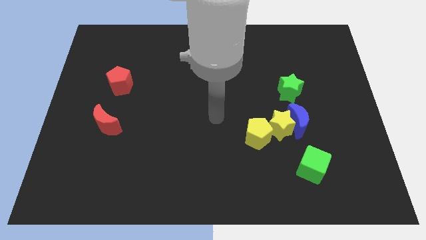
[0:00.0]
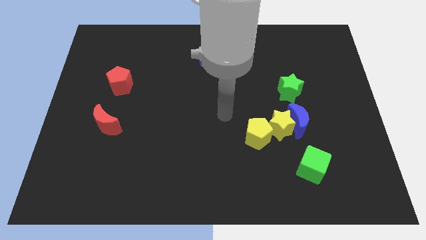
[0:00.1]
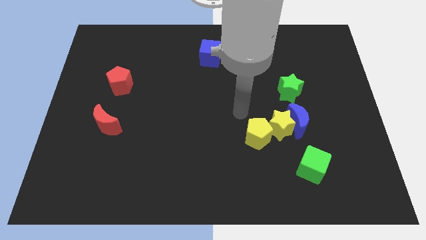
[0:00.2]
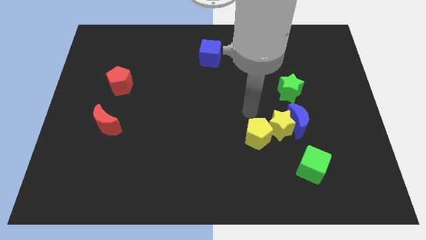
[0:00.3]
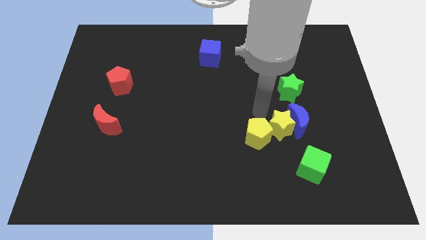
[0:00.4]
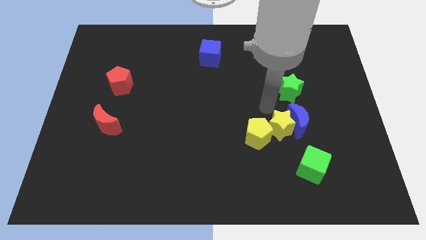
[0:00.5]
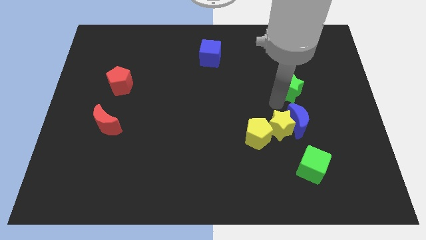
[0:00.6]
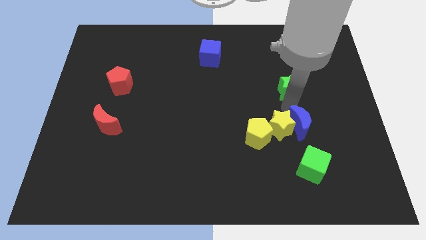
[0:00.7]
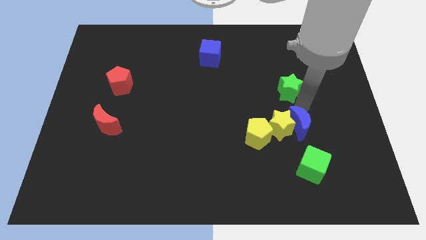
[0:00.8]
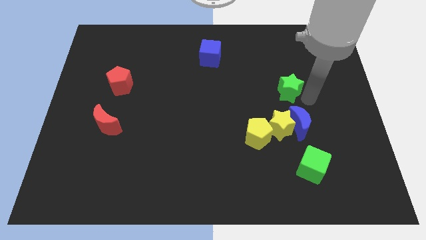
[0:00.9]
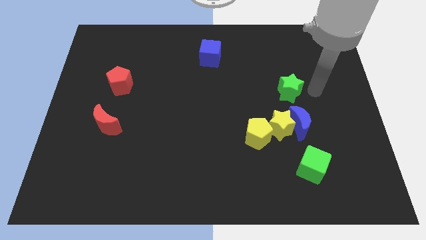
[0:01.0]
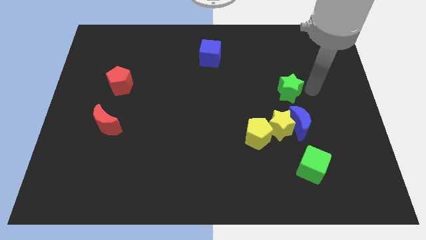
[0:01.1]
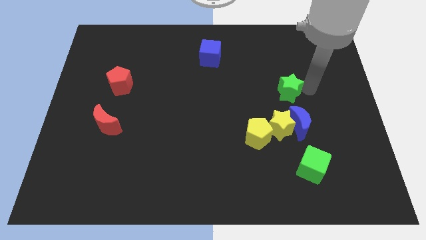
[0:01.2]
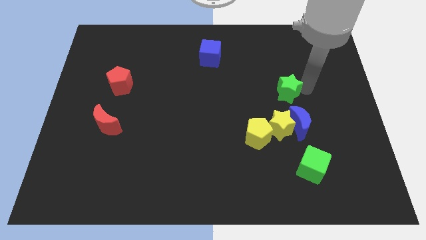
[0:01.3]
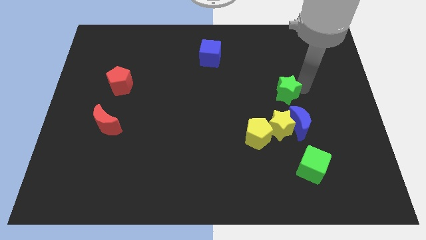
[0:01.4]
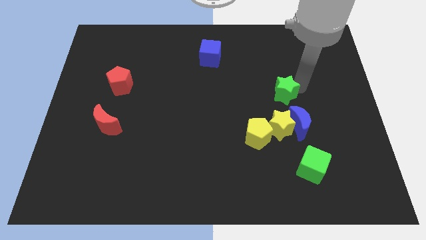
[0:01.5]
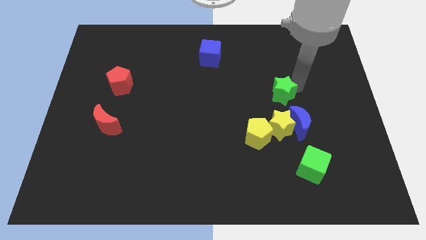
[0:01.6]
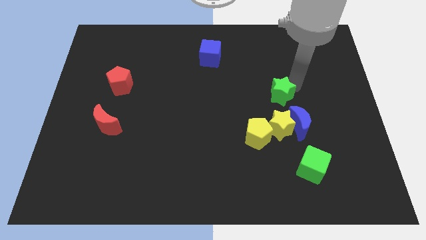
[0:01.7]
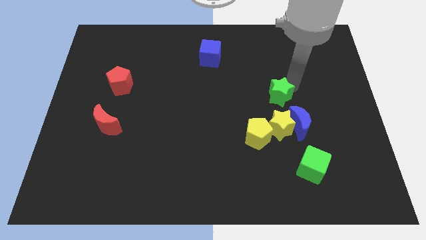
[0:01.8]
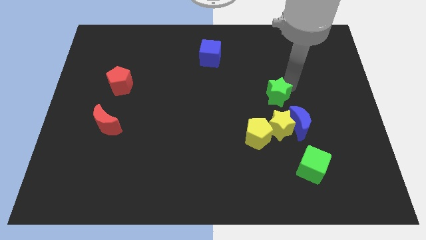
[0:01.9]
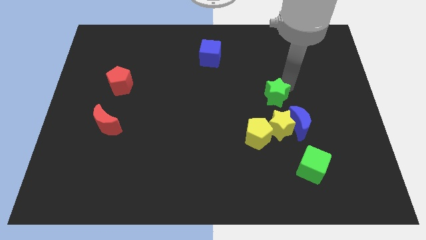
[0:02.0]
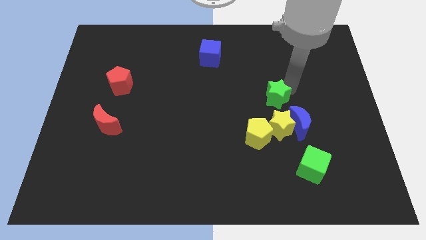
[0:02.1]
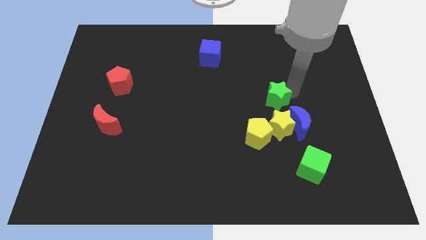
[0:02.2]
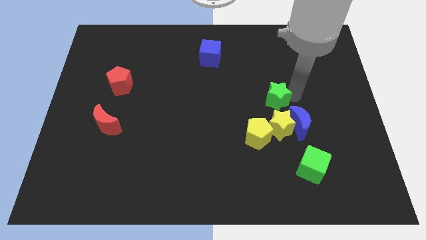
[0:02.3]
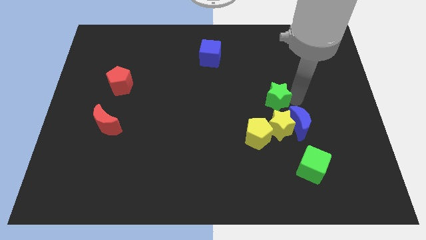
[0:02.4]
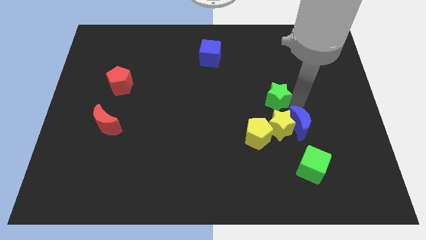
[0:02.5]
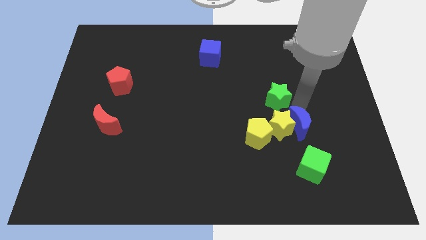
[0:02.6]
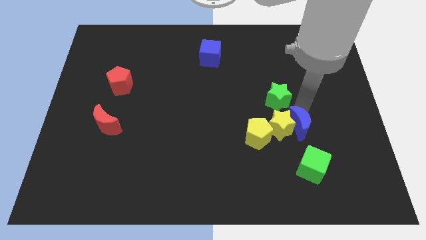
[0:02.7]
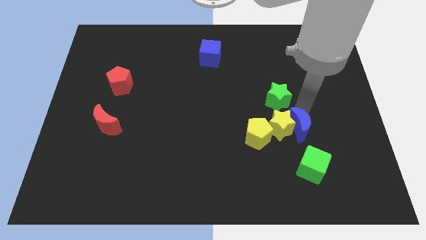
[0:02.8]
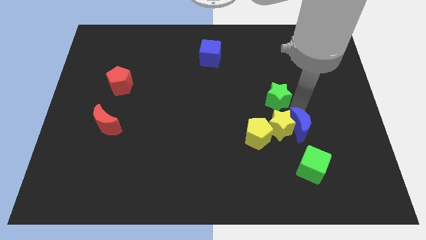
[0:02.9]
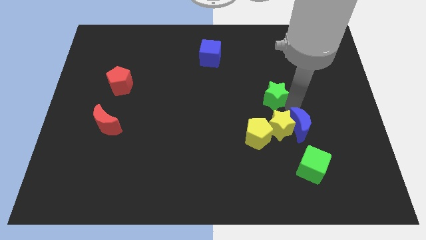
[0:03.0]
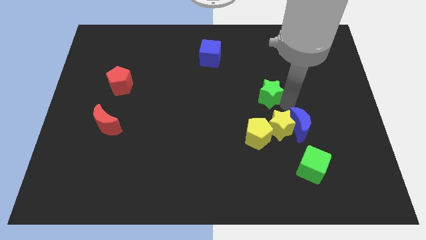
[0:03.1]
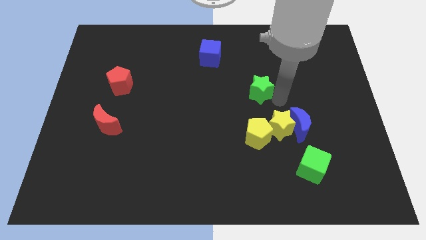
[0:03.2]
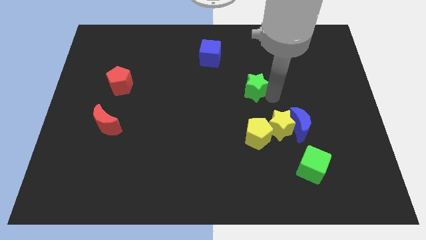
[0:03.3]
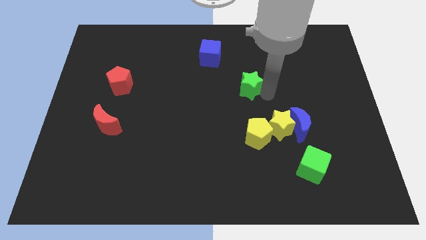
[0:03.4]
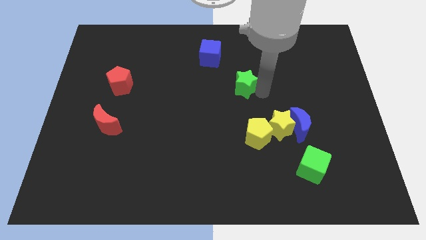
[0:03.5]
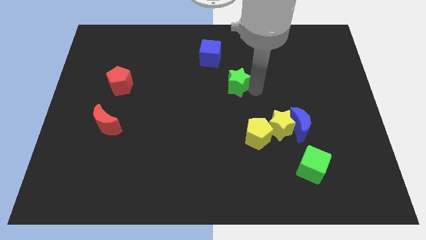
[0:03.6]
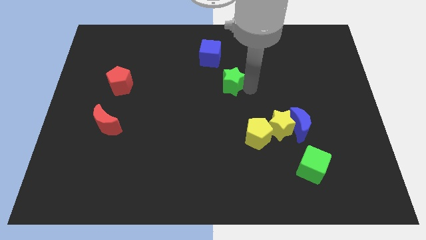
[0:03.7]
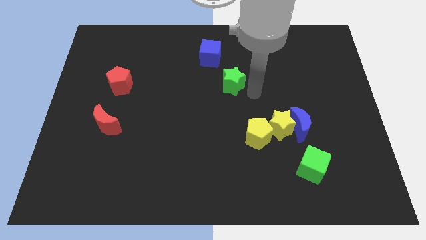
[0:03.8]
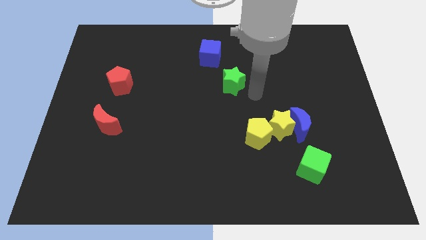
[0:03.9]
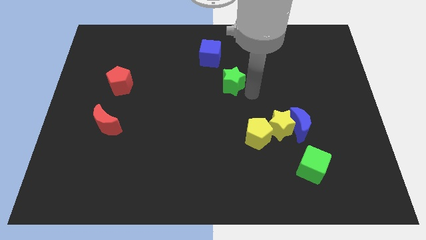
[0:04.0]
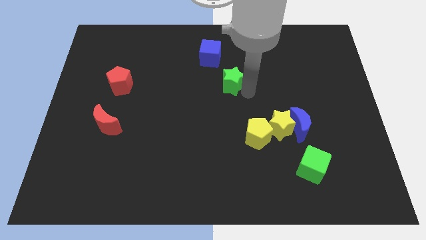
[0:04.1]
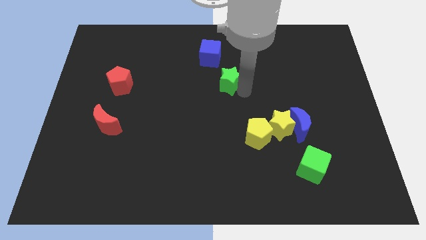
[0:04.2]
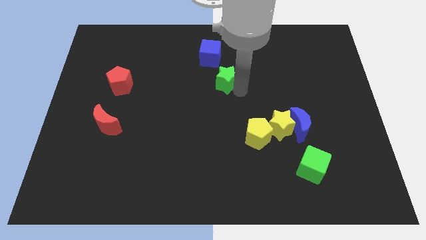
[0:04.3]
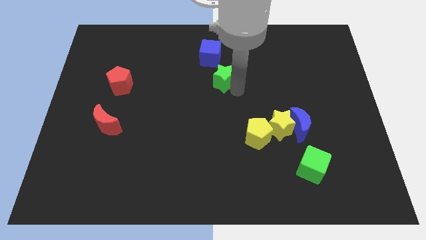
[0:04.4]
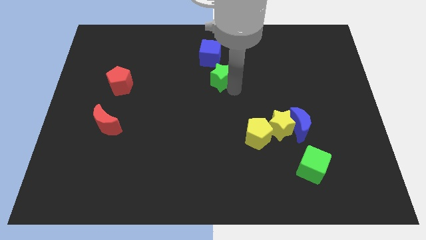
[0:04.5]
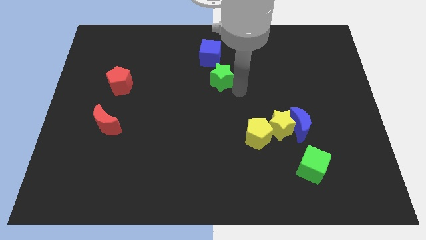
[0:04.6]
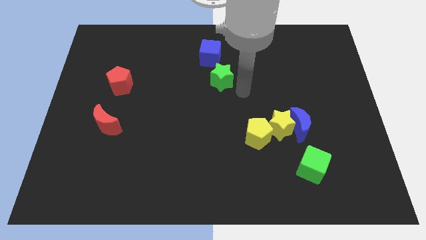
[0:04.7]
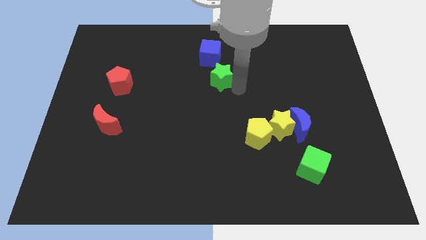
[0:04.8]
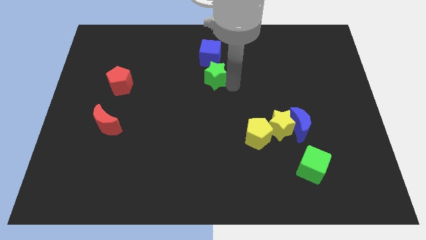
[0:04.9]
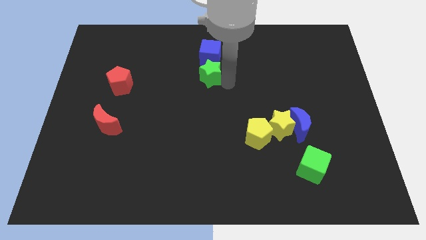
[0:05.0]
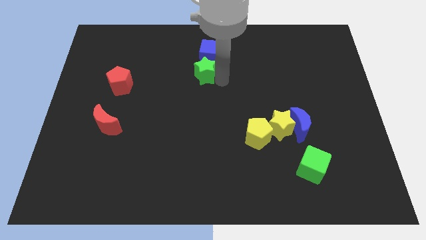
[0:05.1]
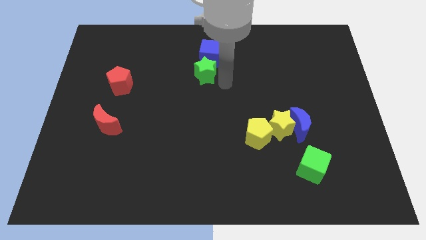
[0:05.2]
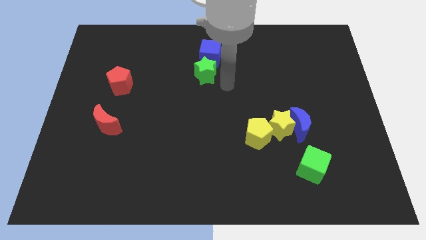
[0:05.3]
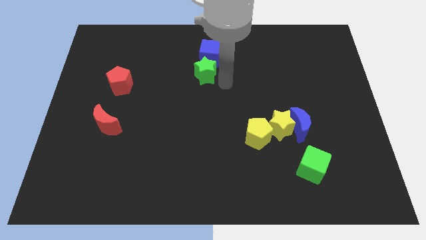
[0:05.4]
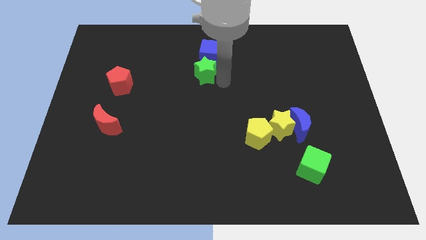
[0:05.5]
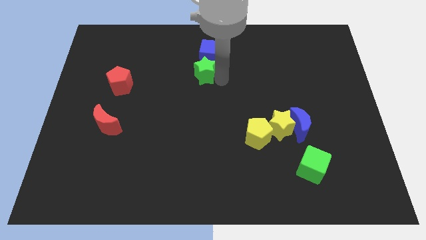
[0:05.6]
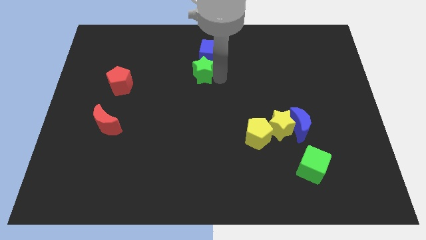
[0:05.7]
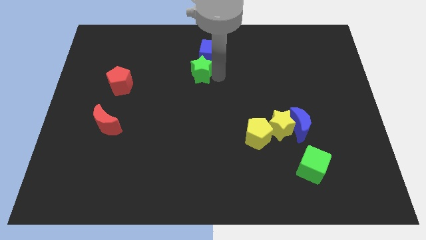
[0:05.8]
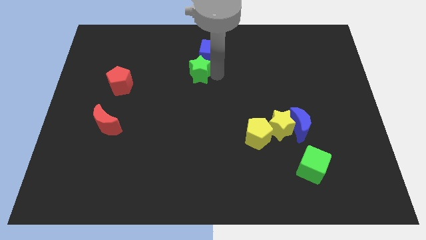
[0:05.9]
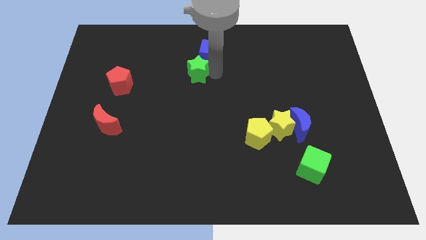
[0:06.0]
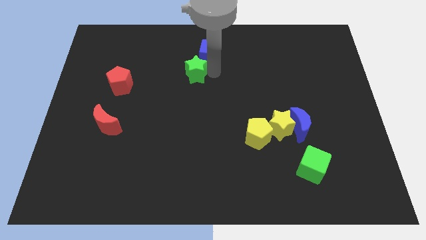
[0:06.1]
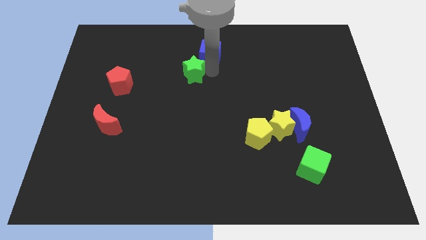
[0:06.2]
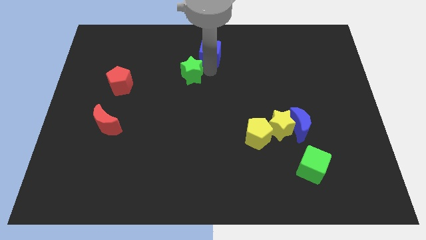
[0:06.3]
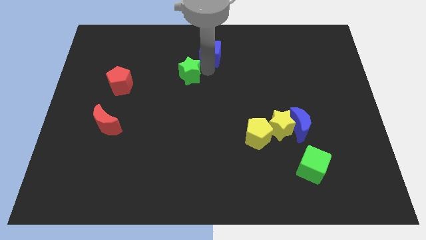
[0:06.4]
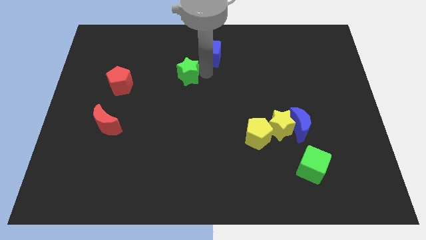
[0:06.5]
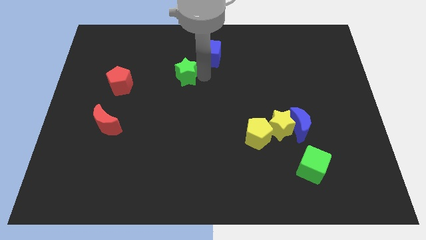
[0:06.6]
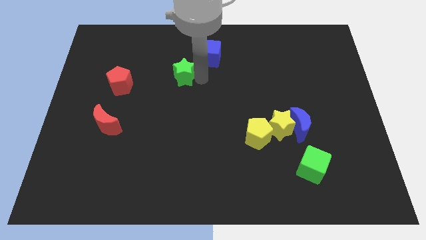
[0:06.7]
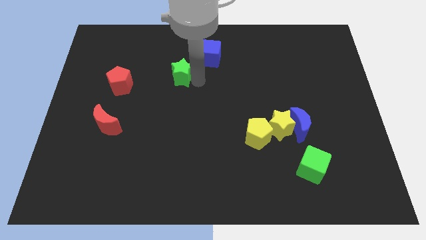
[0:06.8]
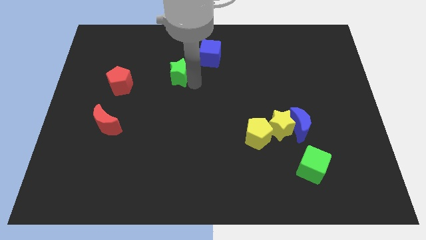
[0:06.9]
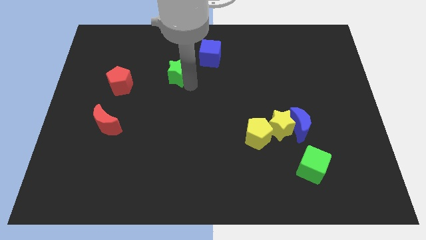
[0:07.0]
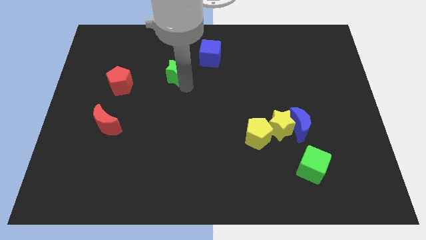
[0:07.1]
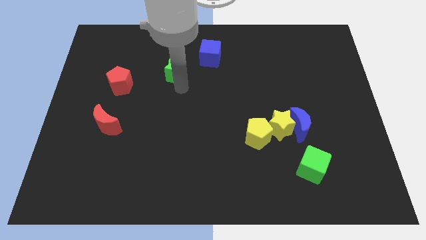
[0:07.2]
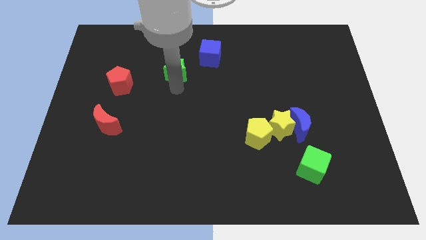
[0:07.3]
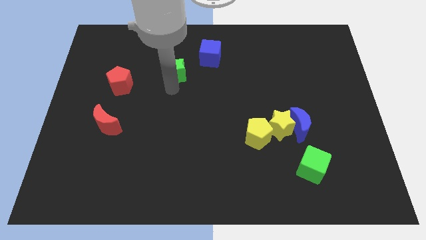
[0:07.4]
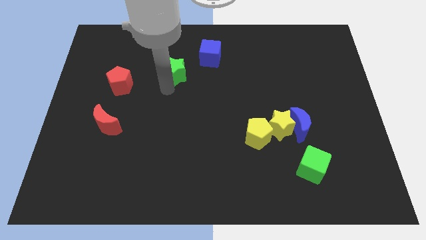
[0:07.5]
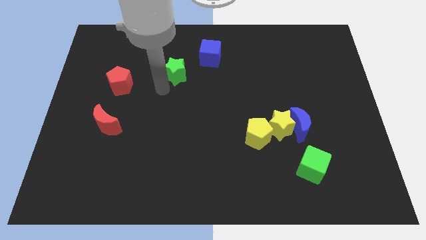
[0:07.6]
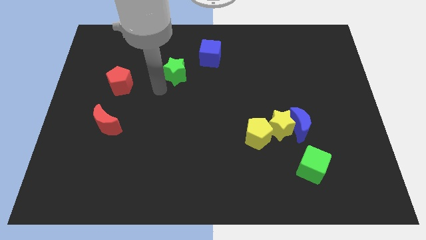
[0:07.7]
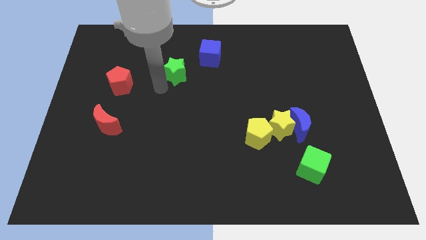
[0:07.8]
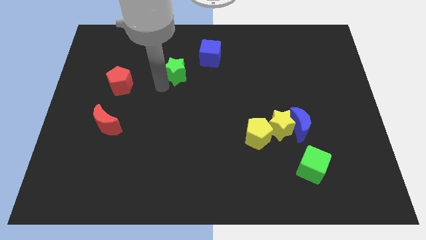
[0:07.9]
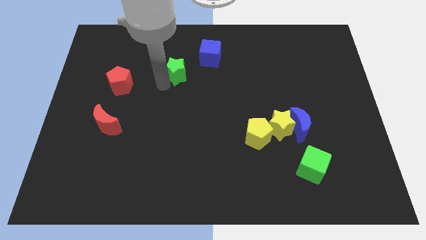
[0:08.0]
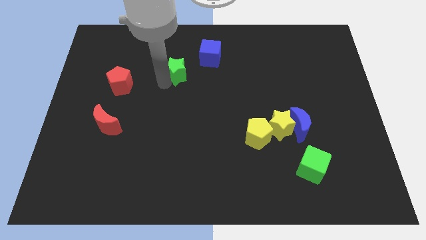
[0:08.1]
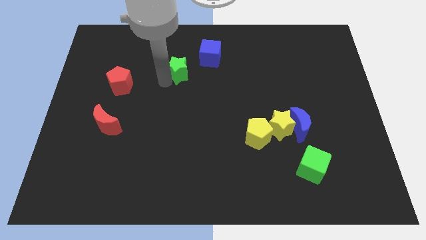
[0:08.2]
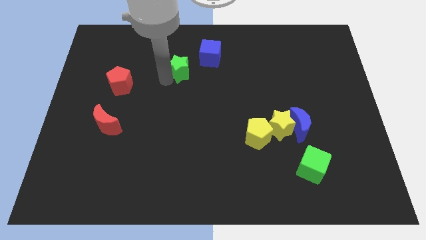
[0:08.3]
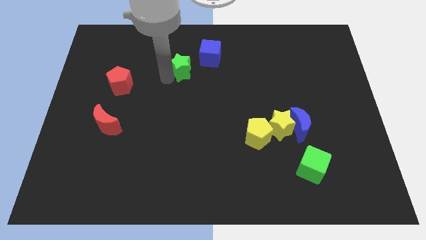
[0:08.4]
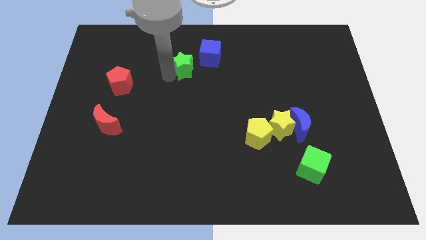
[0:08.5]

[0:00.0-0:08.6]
push the green star just left of the blue cube
